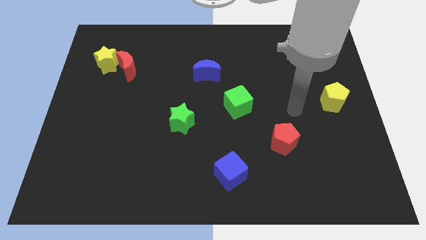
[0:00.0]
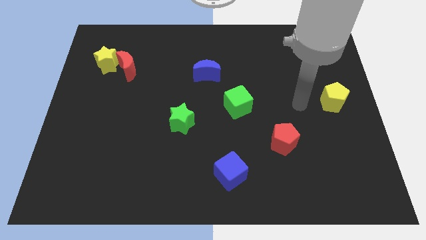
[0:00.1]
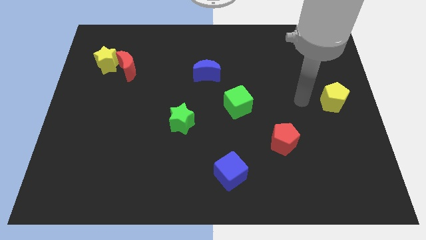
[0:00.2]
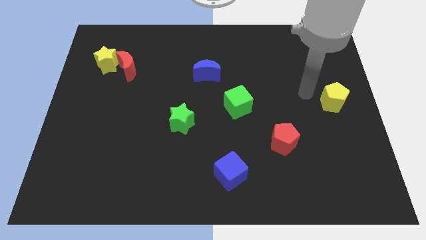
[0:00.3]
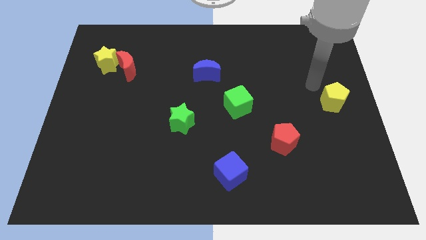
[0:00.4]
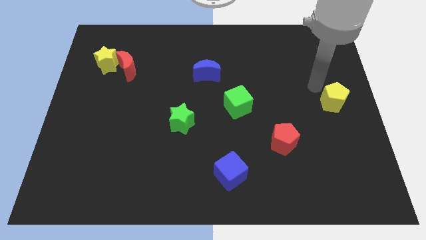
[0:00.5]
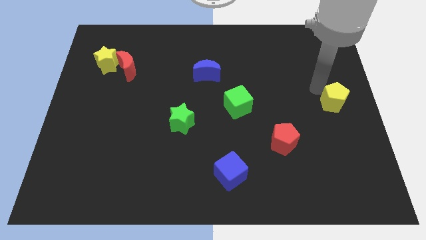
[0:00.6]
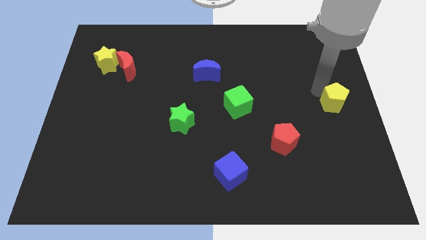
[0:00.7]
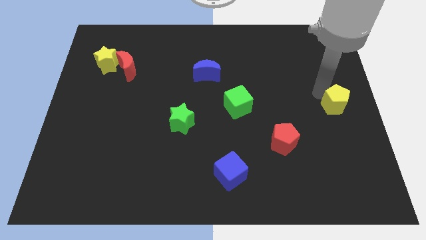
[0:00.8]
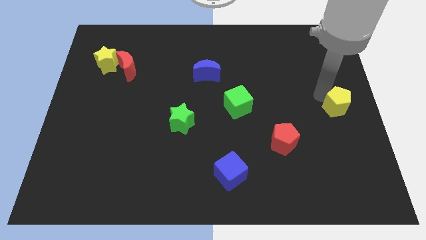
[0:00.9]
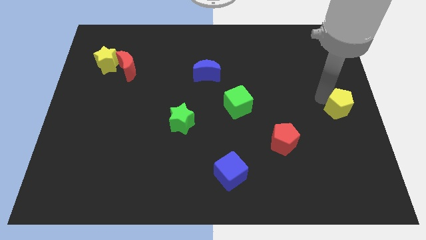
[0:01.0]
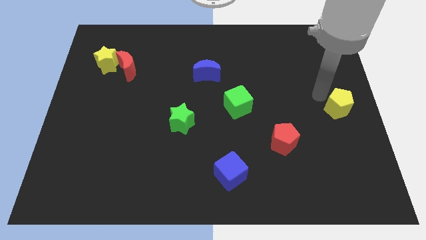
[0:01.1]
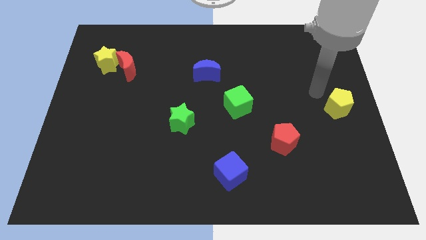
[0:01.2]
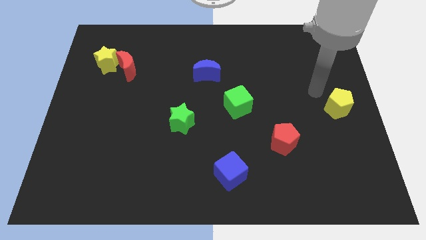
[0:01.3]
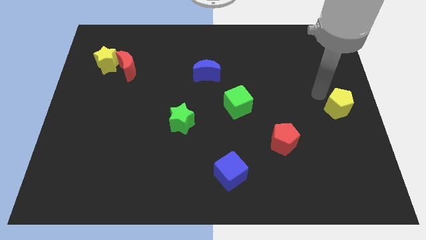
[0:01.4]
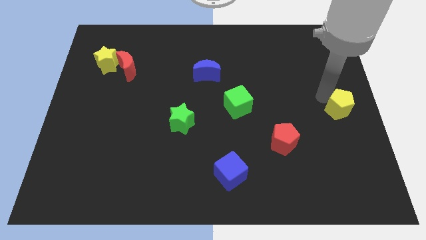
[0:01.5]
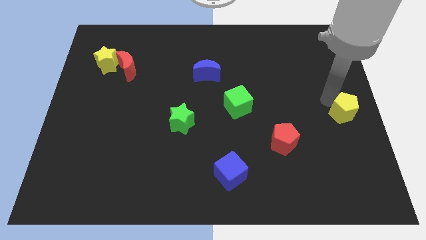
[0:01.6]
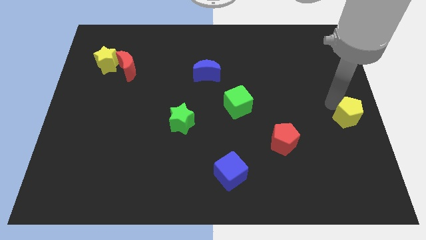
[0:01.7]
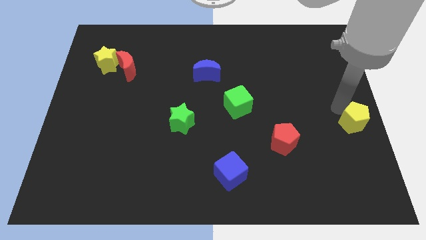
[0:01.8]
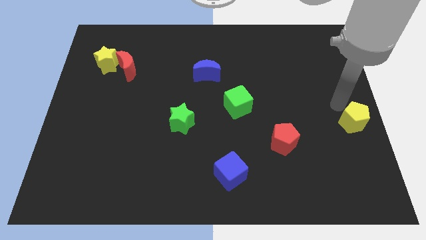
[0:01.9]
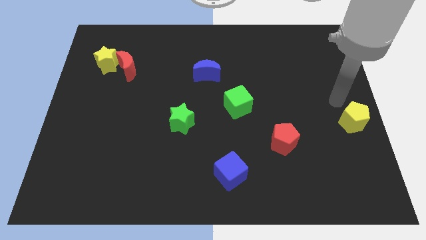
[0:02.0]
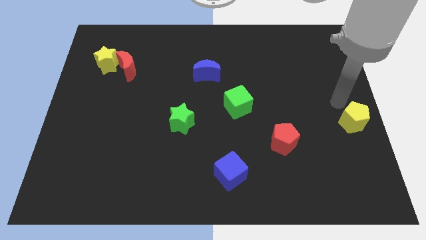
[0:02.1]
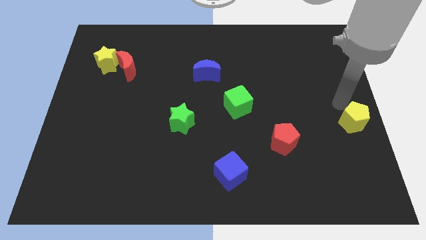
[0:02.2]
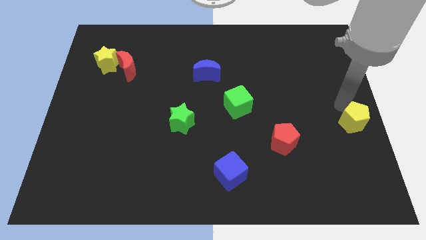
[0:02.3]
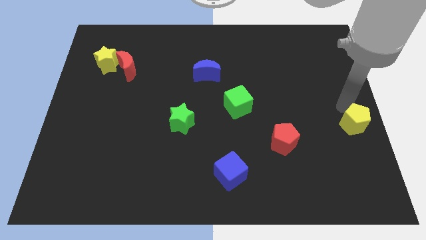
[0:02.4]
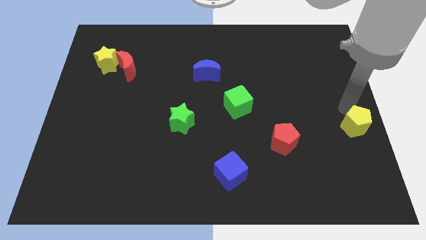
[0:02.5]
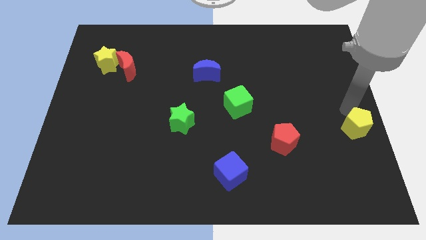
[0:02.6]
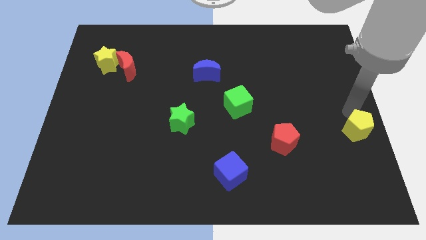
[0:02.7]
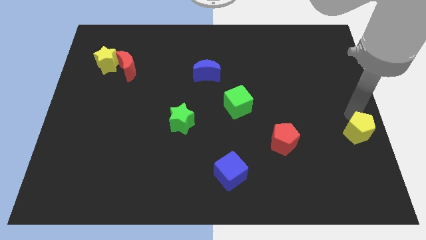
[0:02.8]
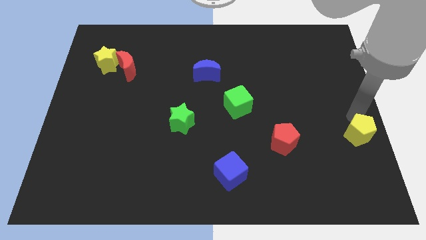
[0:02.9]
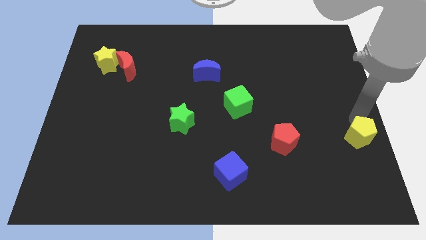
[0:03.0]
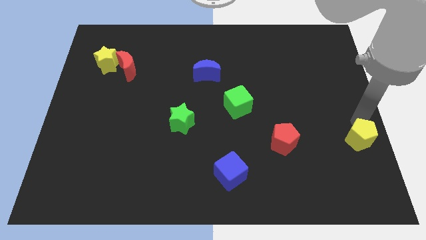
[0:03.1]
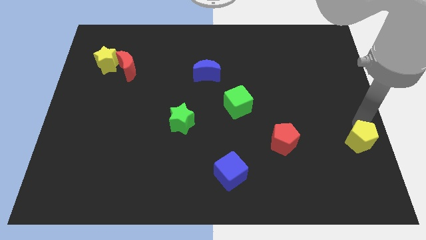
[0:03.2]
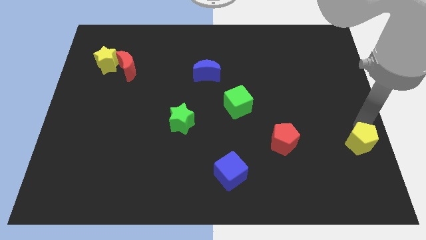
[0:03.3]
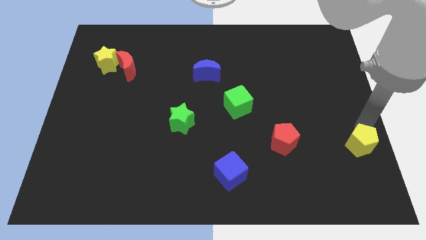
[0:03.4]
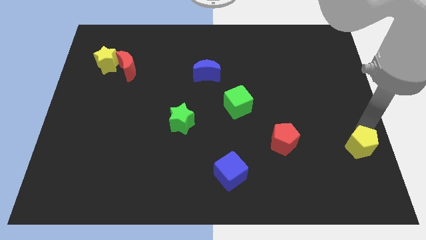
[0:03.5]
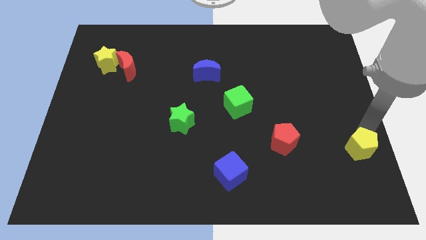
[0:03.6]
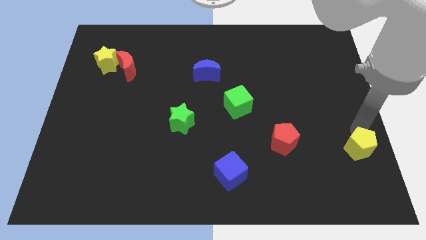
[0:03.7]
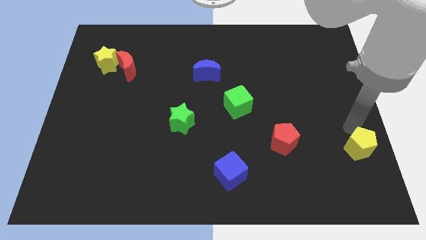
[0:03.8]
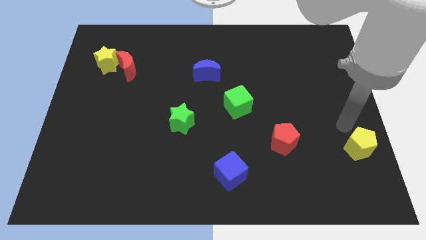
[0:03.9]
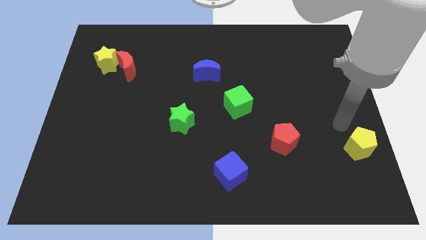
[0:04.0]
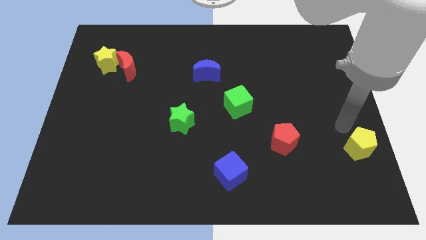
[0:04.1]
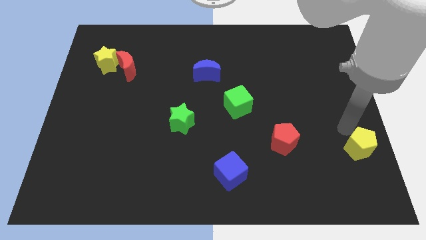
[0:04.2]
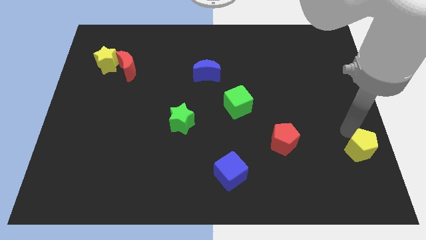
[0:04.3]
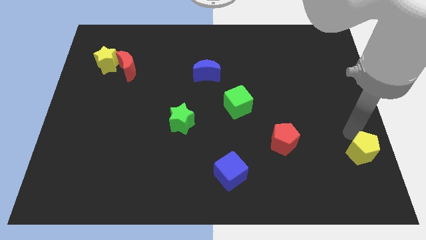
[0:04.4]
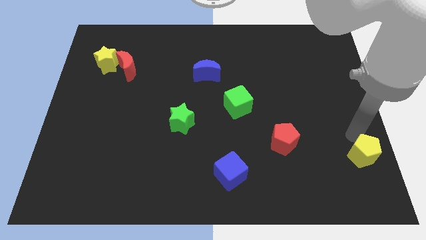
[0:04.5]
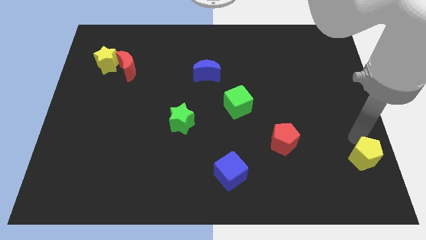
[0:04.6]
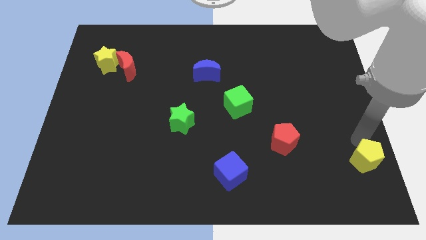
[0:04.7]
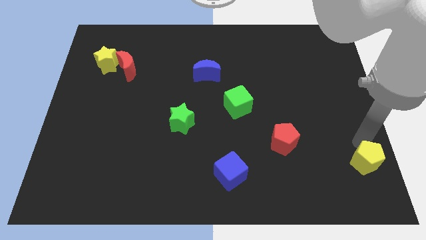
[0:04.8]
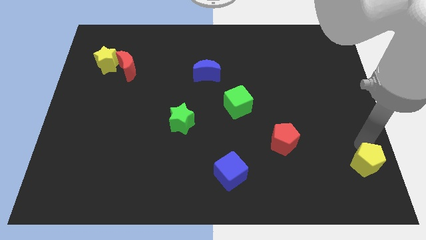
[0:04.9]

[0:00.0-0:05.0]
push the yellow pentagon to the bottom right

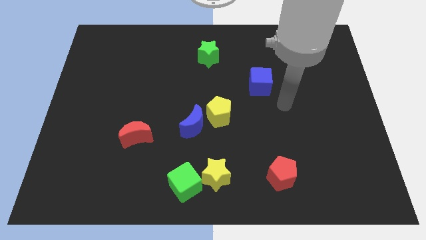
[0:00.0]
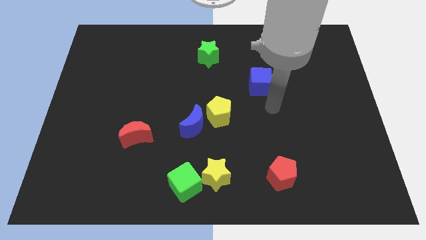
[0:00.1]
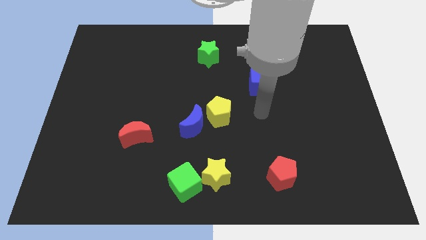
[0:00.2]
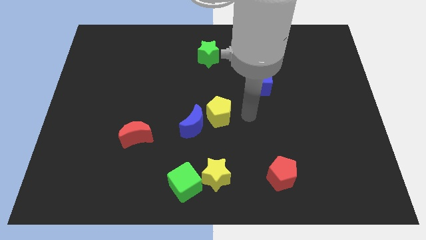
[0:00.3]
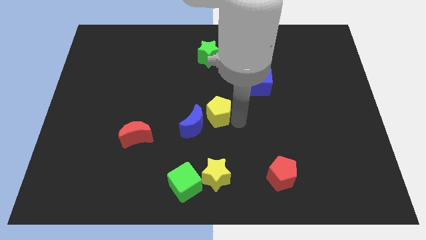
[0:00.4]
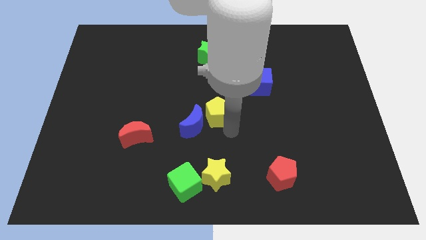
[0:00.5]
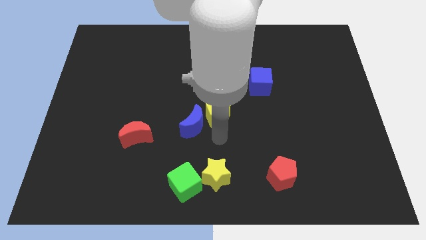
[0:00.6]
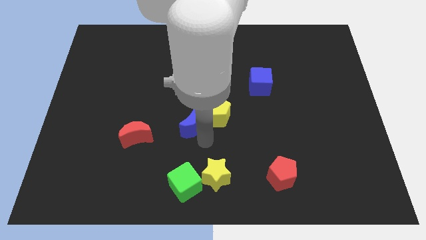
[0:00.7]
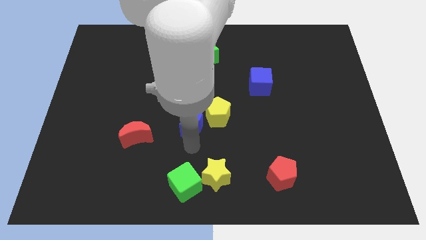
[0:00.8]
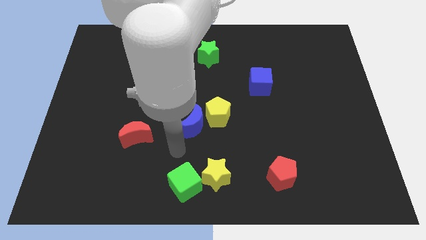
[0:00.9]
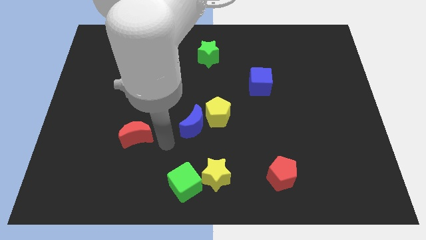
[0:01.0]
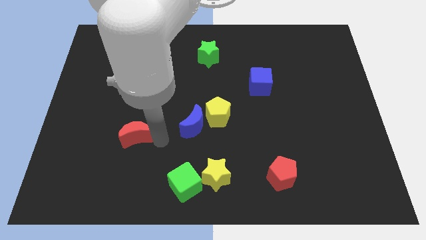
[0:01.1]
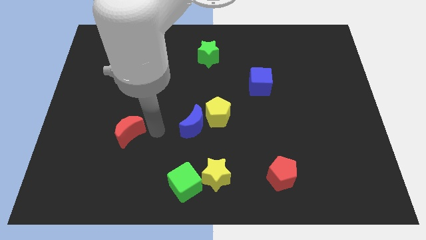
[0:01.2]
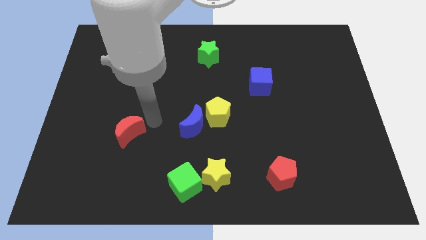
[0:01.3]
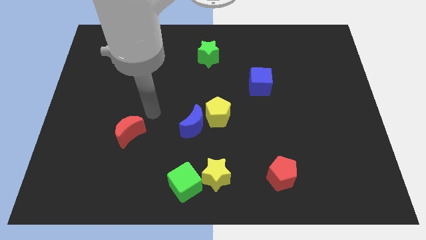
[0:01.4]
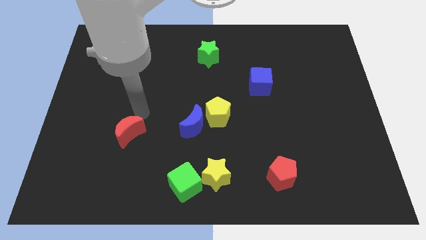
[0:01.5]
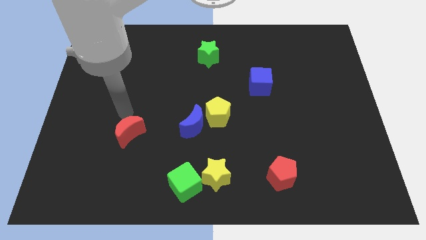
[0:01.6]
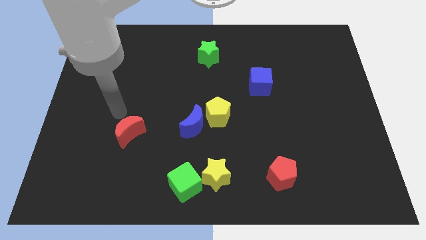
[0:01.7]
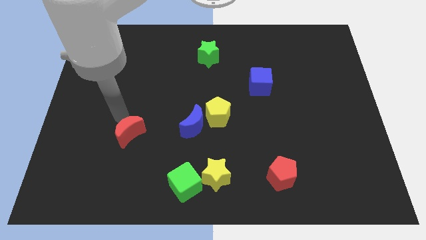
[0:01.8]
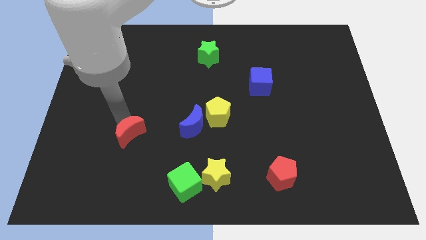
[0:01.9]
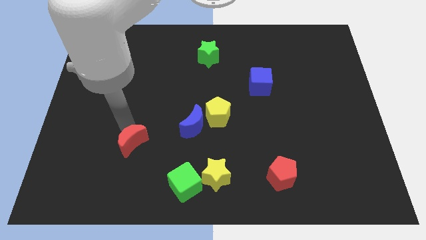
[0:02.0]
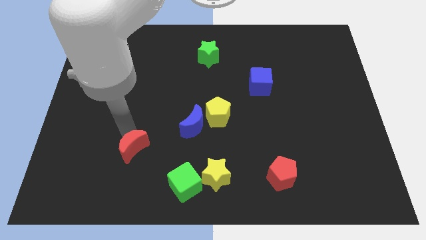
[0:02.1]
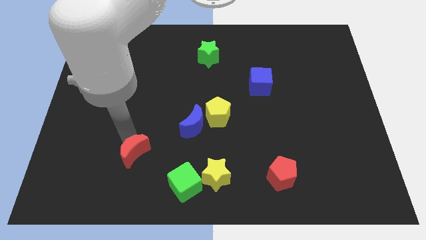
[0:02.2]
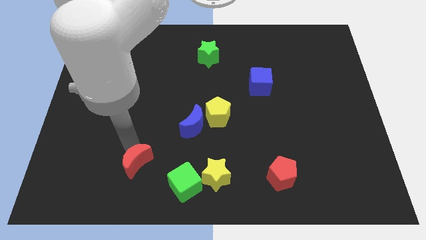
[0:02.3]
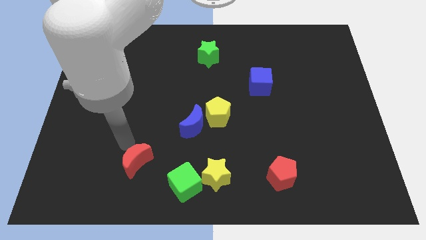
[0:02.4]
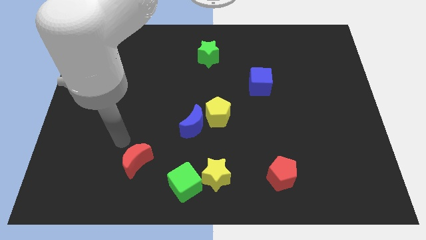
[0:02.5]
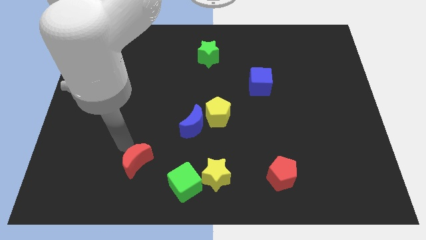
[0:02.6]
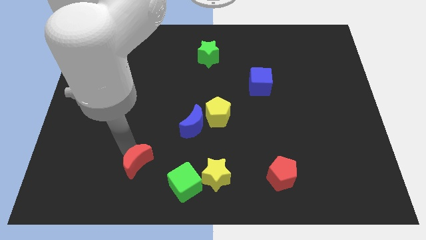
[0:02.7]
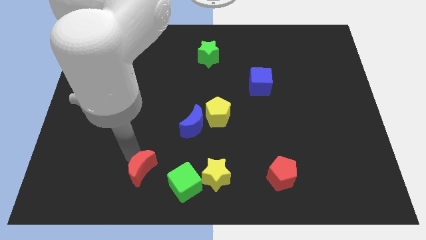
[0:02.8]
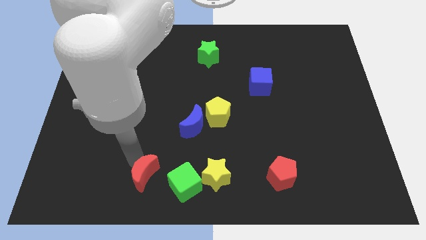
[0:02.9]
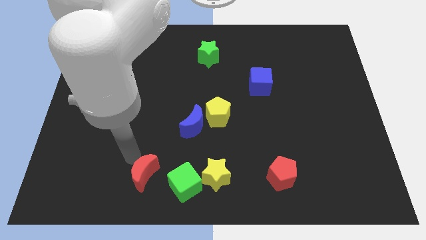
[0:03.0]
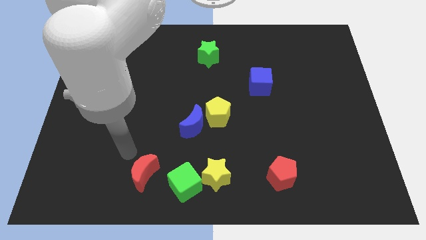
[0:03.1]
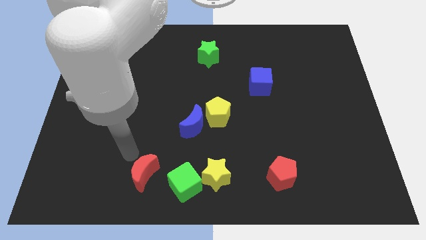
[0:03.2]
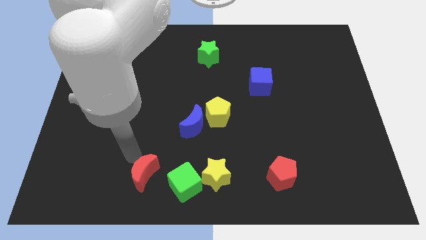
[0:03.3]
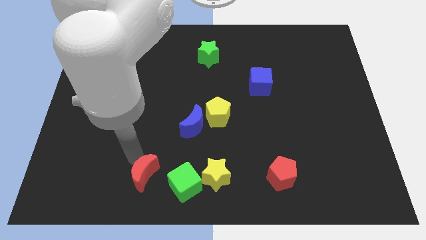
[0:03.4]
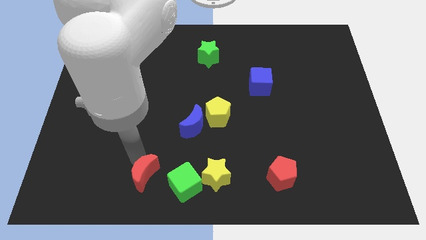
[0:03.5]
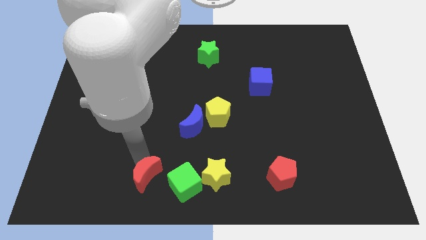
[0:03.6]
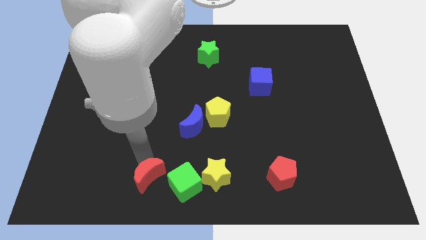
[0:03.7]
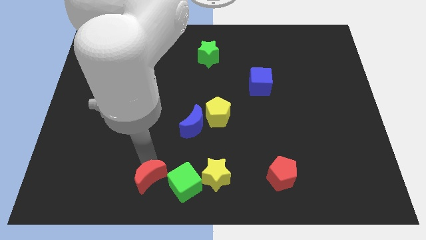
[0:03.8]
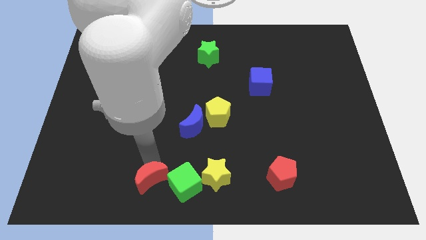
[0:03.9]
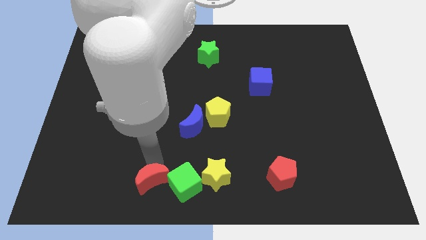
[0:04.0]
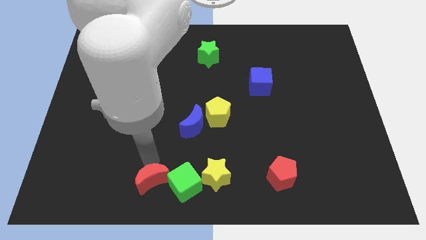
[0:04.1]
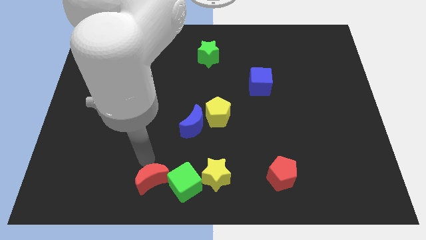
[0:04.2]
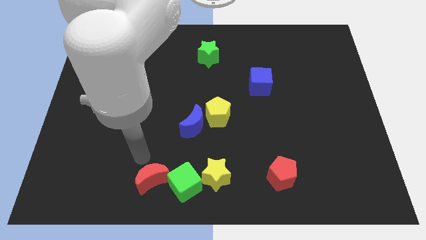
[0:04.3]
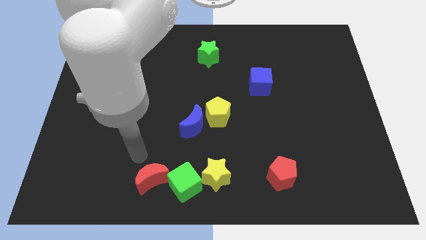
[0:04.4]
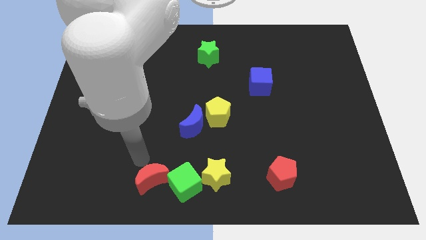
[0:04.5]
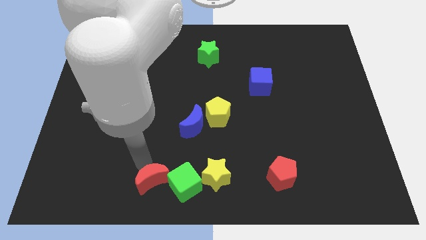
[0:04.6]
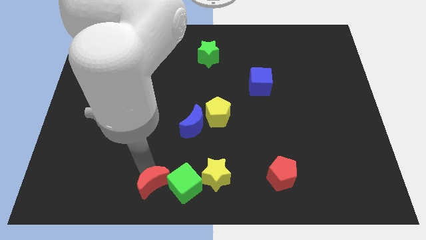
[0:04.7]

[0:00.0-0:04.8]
slide the red moon to the bottom
